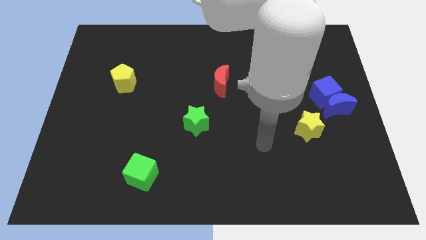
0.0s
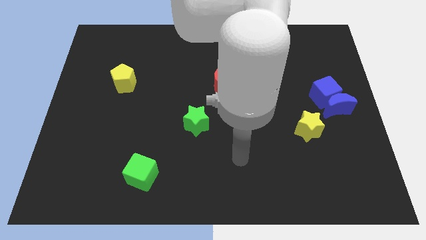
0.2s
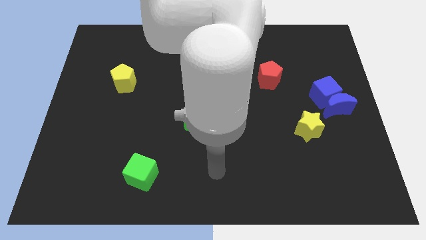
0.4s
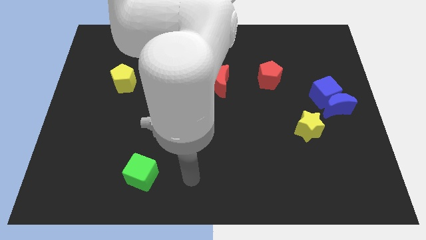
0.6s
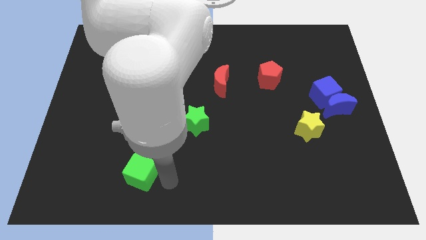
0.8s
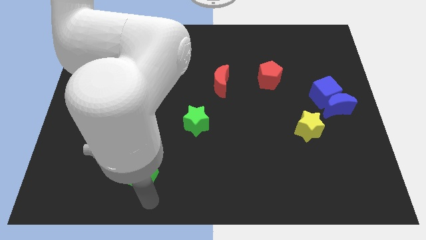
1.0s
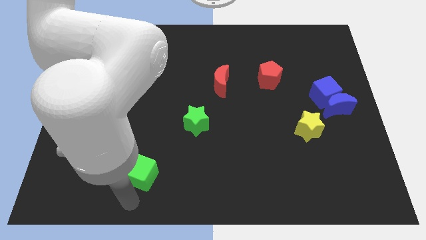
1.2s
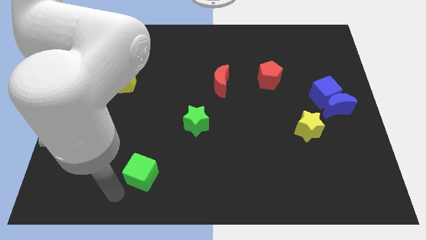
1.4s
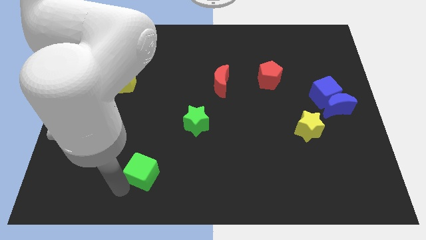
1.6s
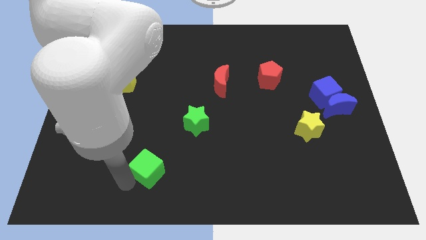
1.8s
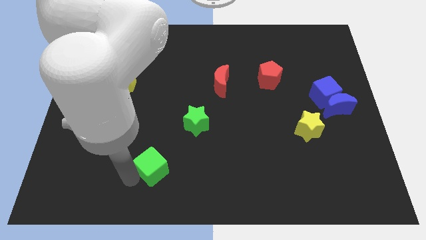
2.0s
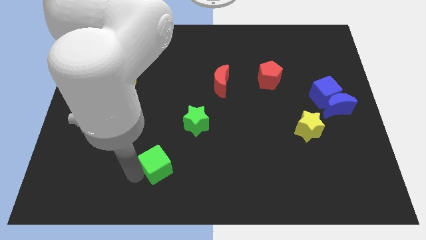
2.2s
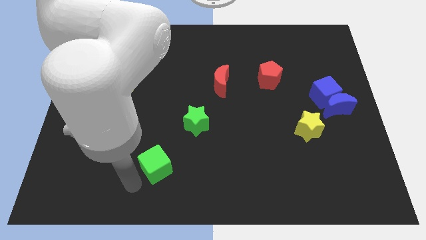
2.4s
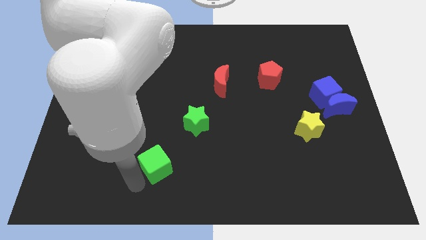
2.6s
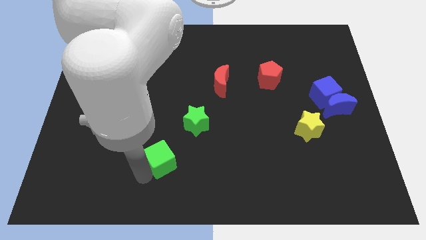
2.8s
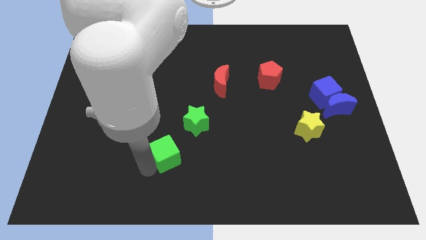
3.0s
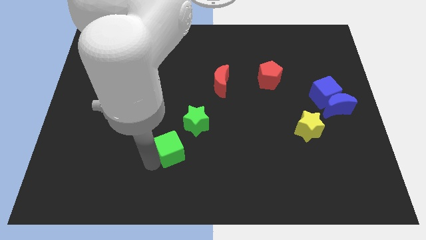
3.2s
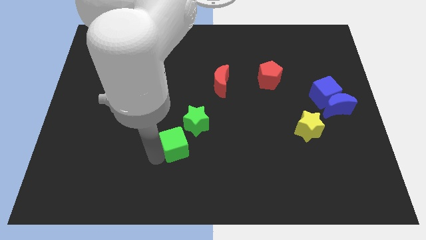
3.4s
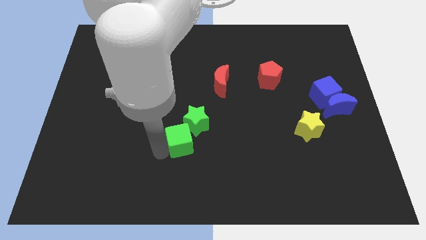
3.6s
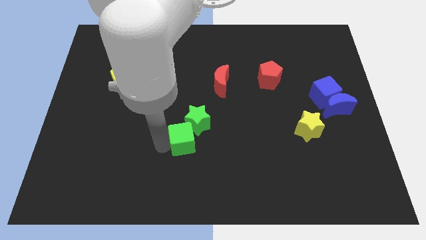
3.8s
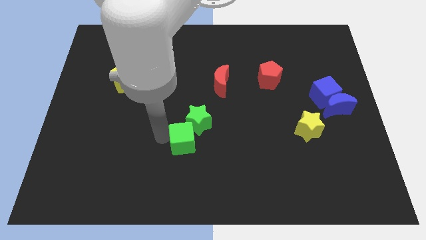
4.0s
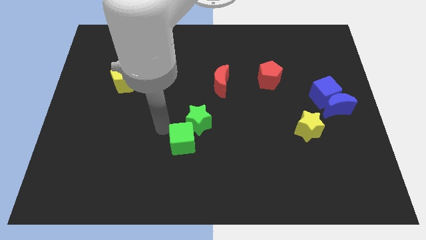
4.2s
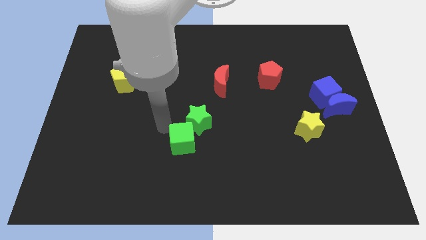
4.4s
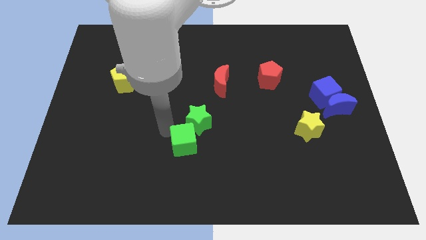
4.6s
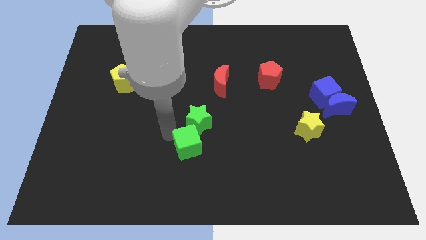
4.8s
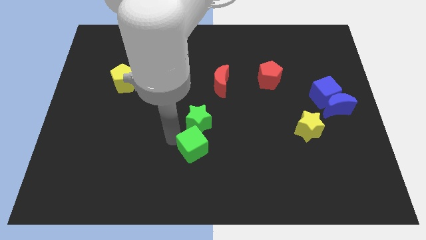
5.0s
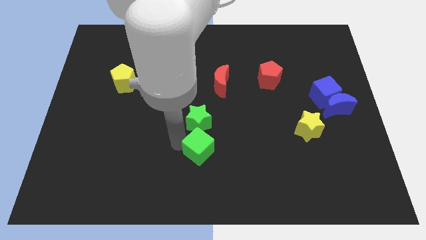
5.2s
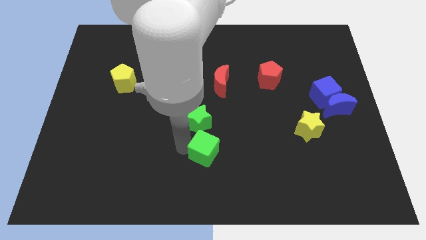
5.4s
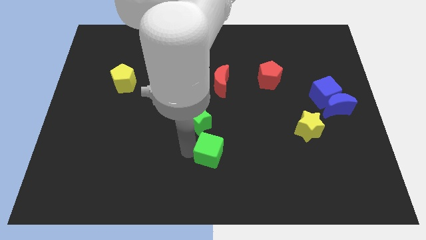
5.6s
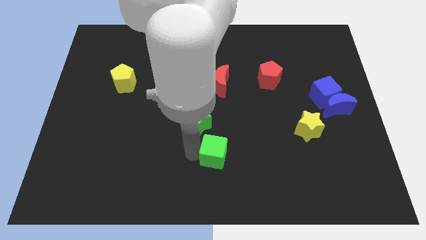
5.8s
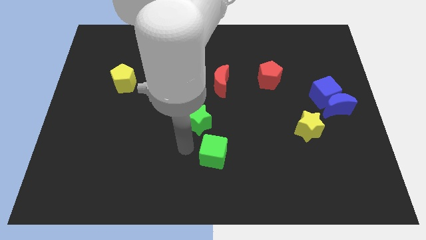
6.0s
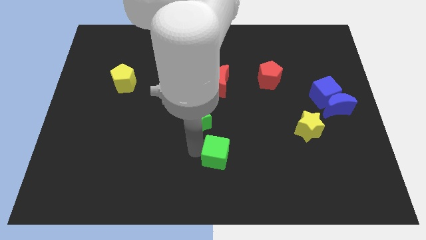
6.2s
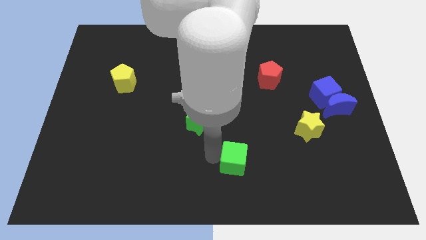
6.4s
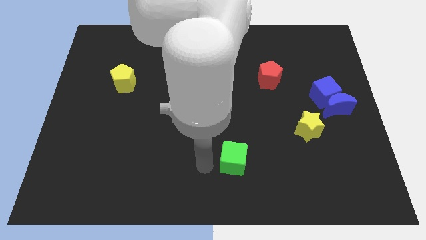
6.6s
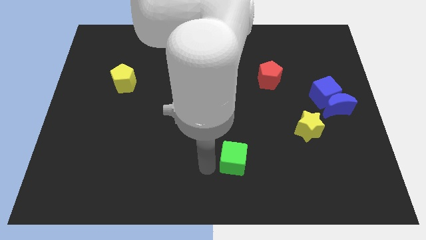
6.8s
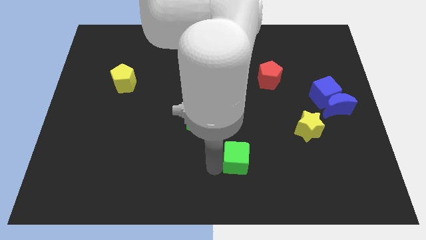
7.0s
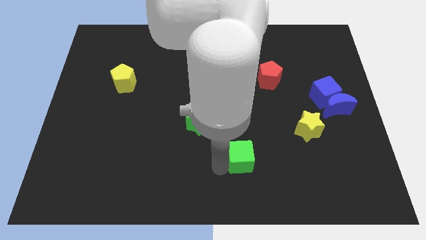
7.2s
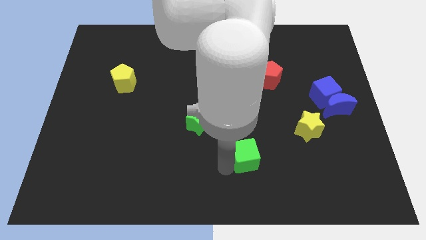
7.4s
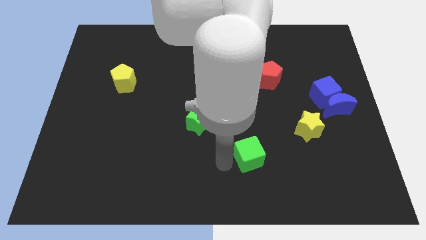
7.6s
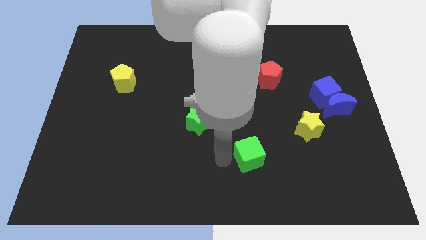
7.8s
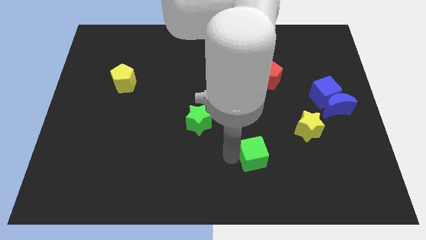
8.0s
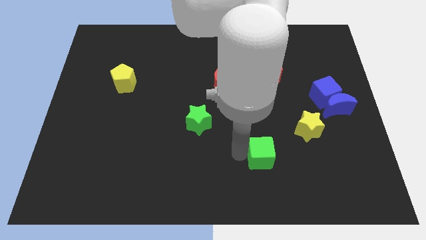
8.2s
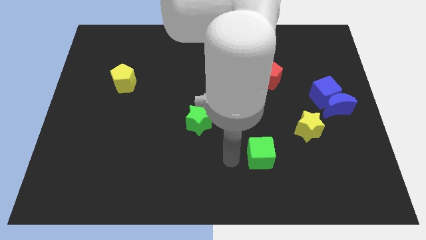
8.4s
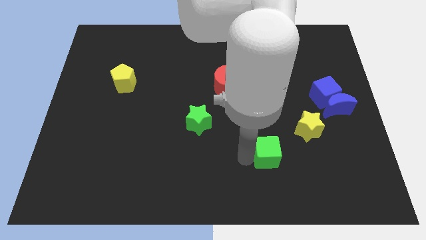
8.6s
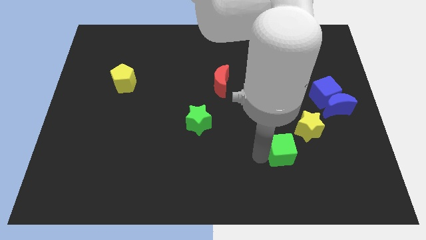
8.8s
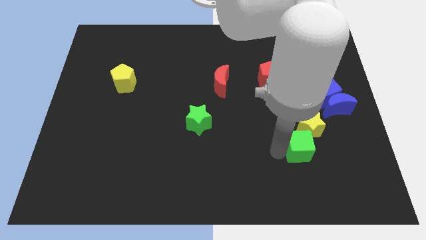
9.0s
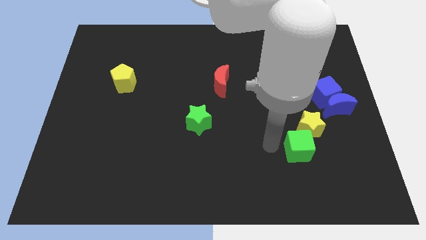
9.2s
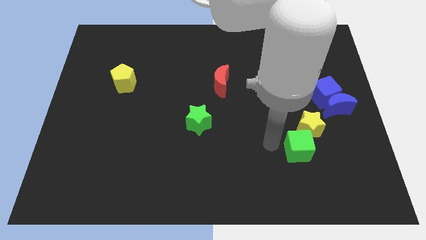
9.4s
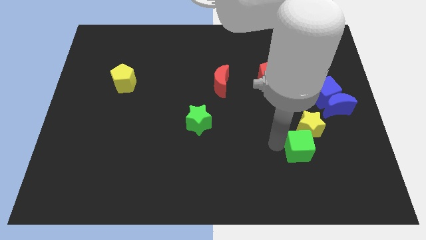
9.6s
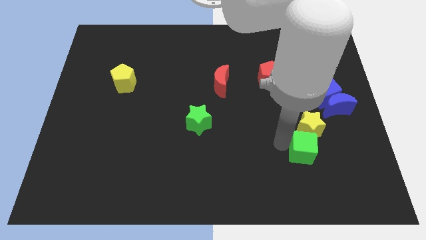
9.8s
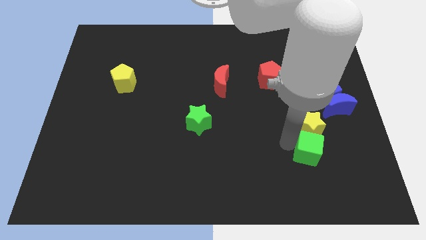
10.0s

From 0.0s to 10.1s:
move the green cube diagonally down and to the right of the yellow star

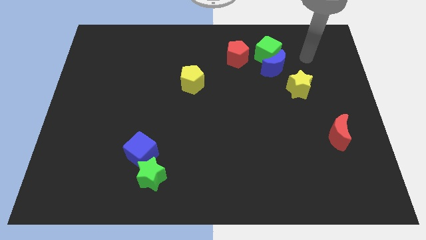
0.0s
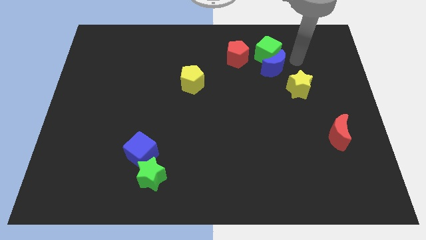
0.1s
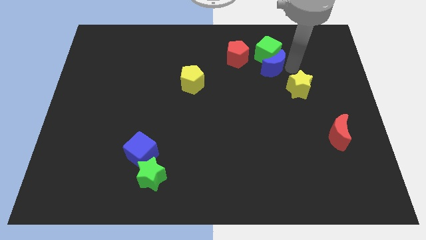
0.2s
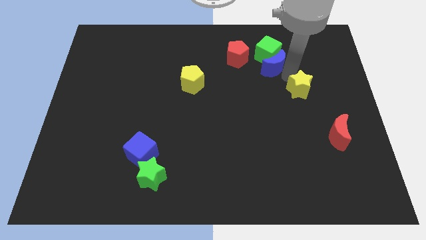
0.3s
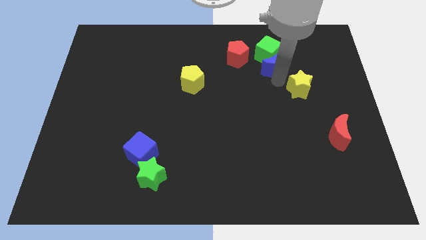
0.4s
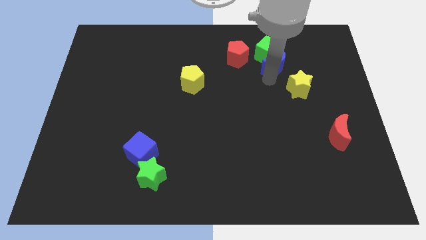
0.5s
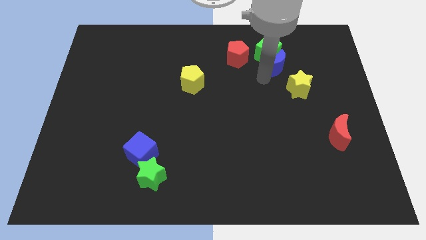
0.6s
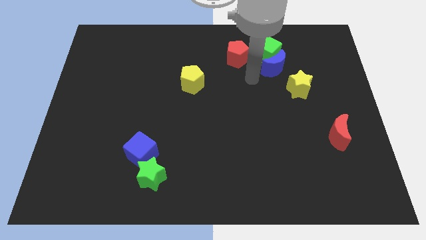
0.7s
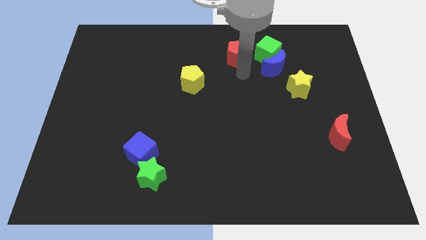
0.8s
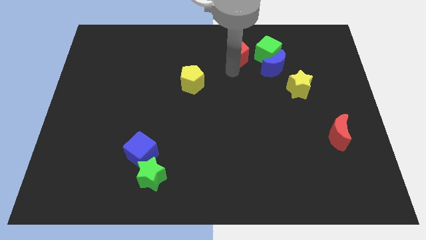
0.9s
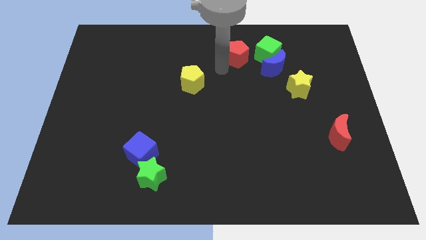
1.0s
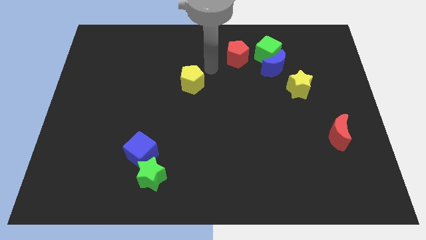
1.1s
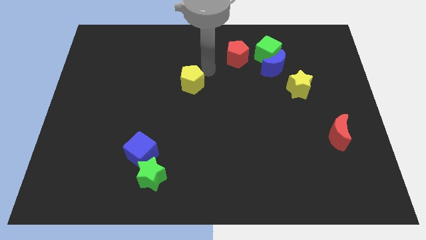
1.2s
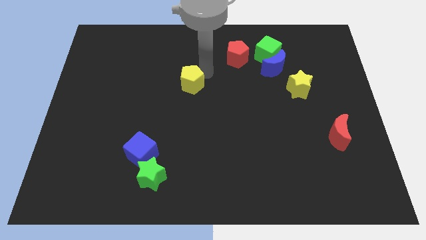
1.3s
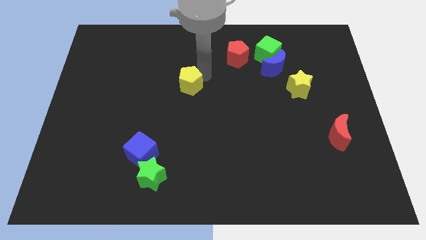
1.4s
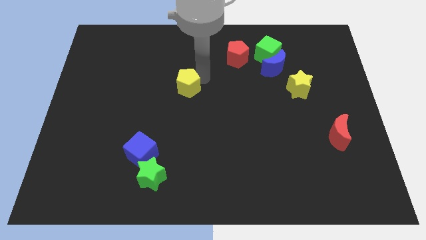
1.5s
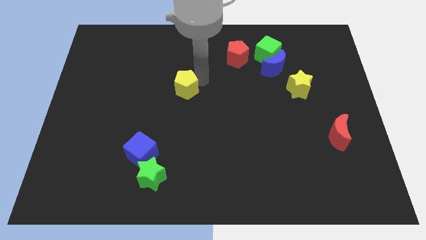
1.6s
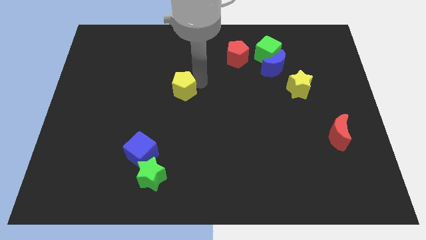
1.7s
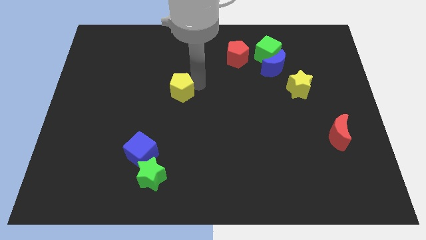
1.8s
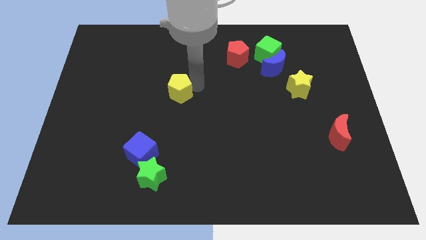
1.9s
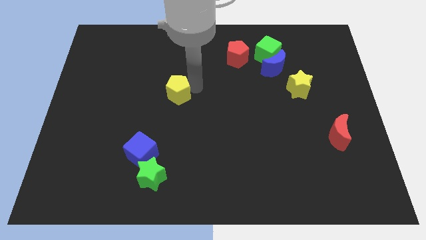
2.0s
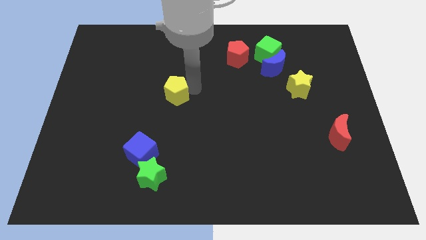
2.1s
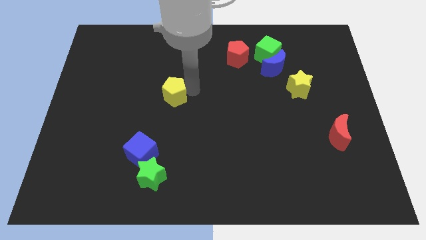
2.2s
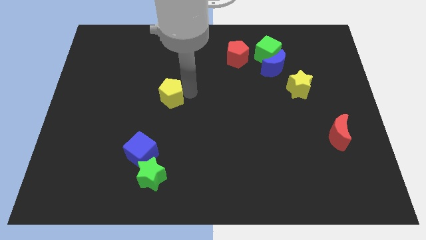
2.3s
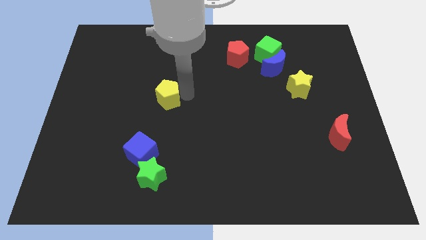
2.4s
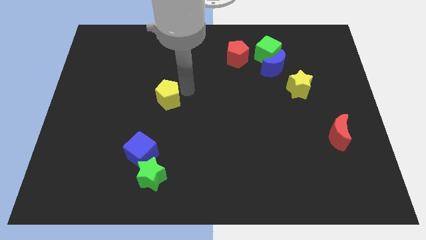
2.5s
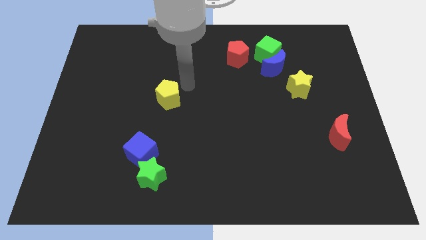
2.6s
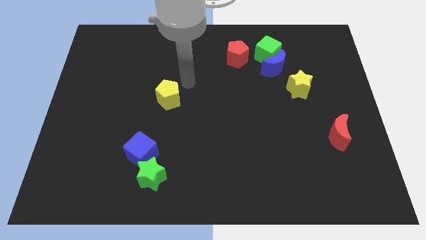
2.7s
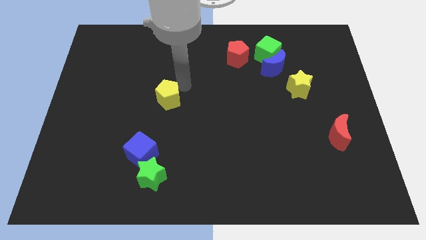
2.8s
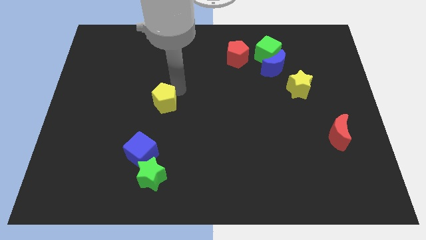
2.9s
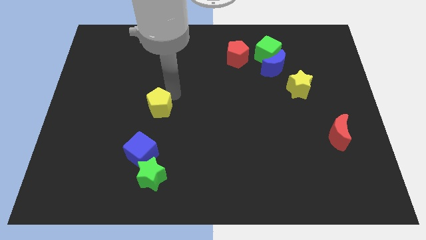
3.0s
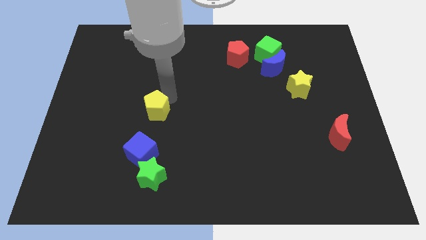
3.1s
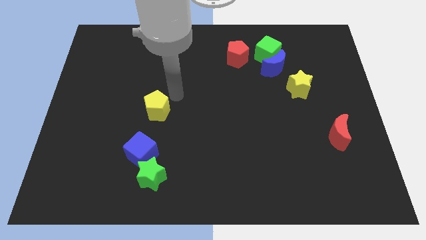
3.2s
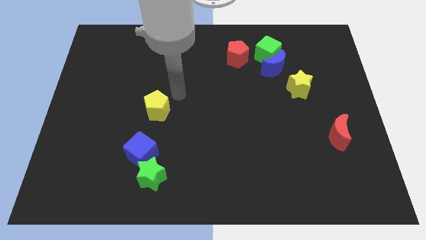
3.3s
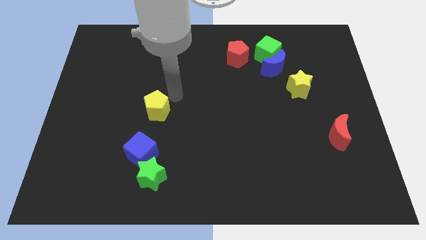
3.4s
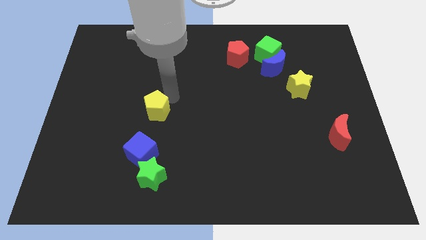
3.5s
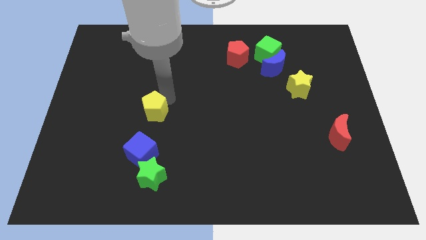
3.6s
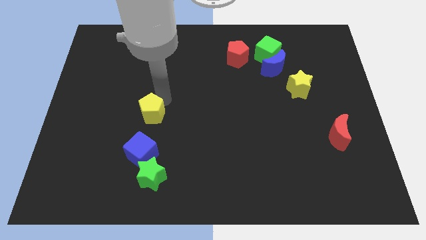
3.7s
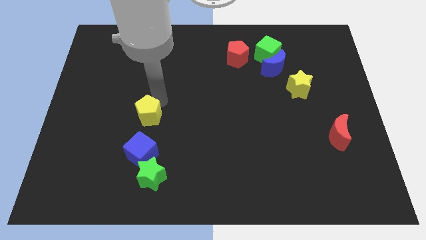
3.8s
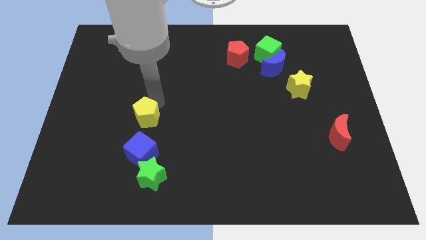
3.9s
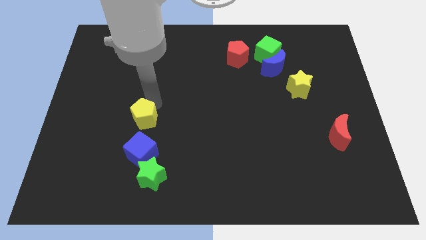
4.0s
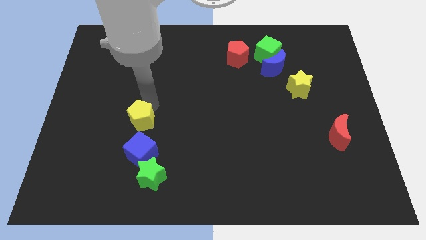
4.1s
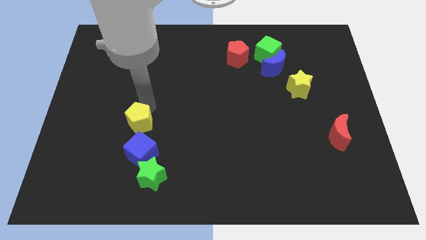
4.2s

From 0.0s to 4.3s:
slide the yellow pentagon to the top left of the blue cube
